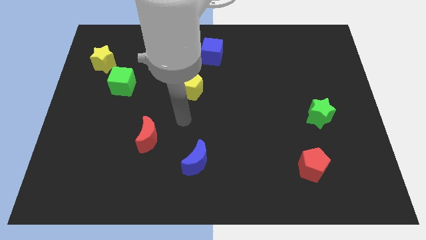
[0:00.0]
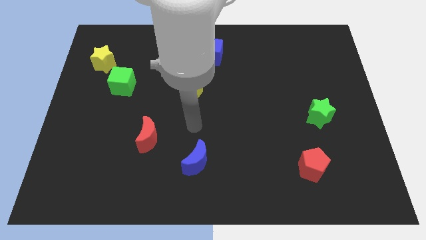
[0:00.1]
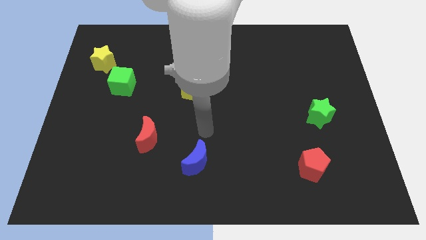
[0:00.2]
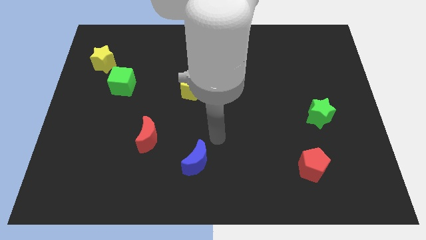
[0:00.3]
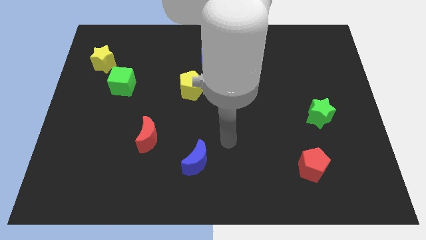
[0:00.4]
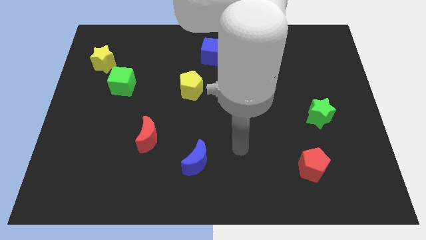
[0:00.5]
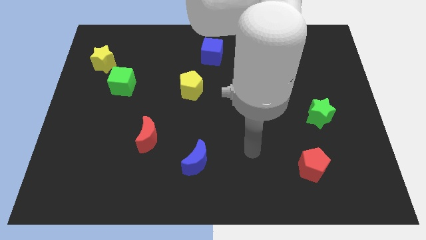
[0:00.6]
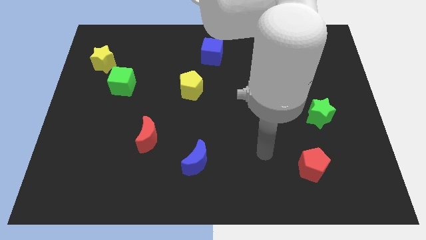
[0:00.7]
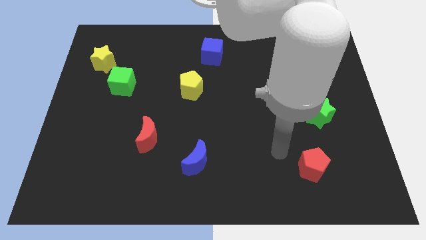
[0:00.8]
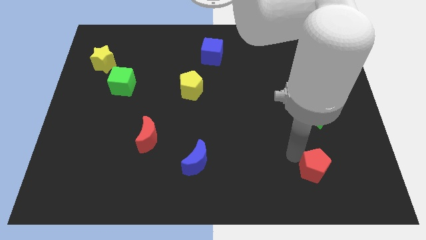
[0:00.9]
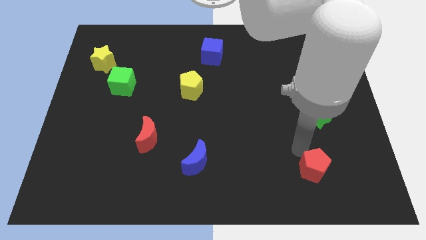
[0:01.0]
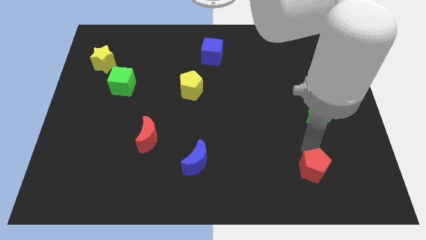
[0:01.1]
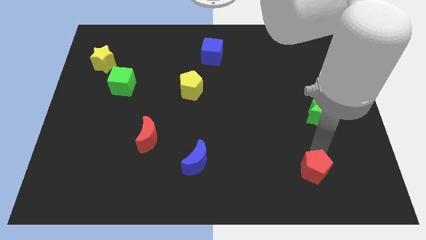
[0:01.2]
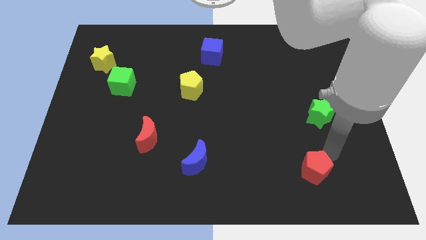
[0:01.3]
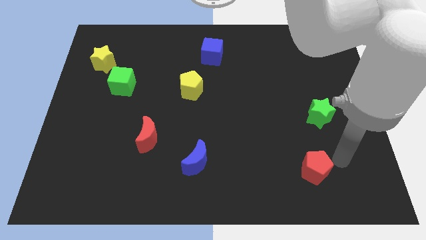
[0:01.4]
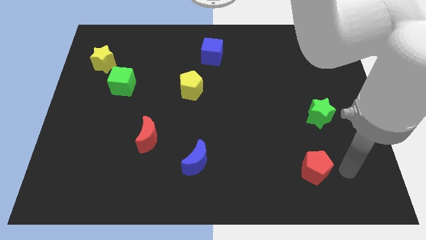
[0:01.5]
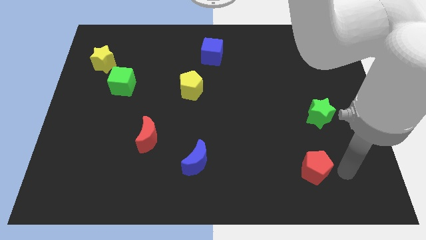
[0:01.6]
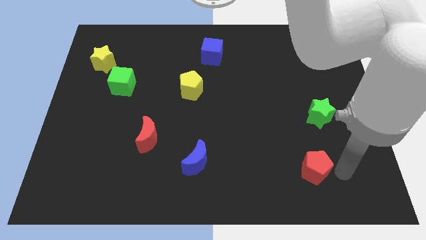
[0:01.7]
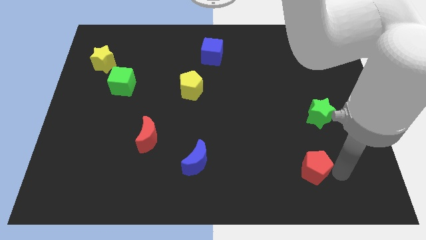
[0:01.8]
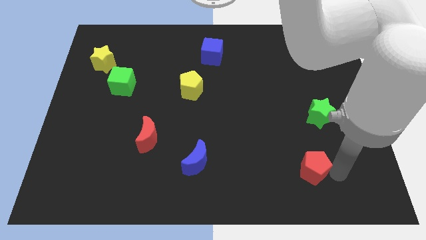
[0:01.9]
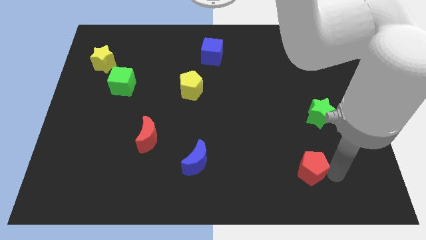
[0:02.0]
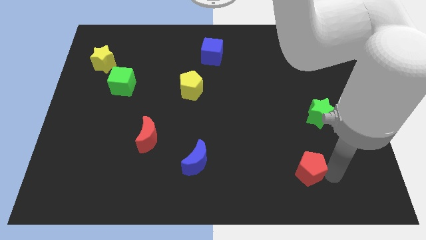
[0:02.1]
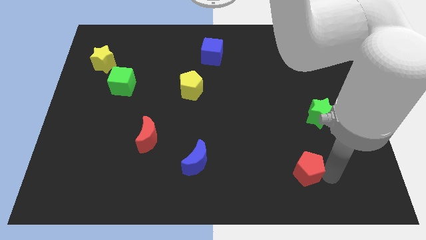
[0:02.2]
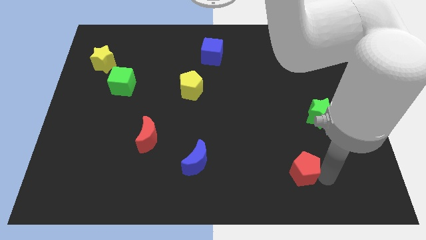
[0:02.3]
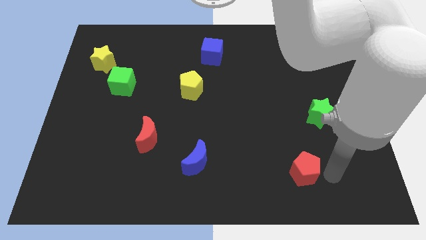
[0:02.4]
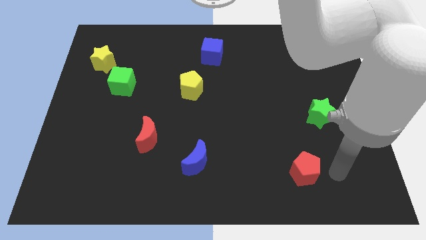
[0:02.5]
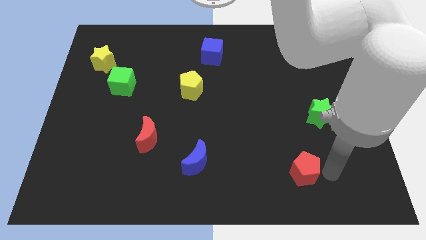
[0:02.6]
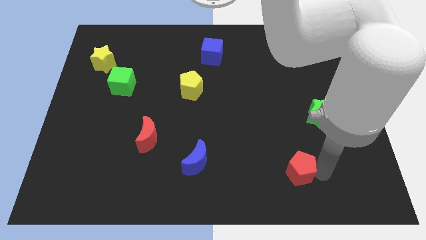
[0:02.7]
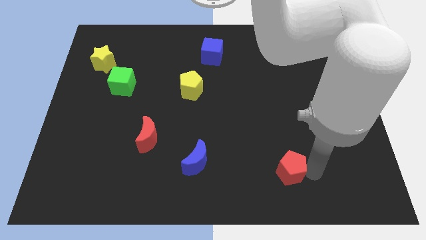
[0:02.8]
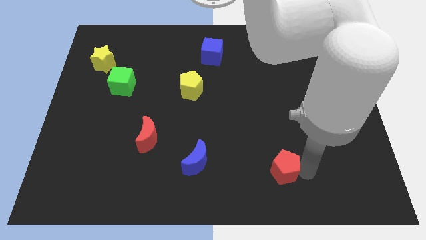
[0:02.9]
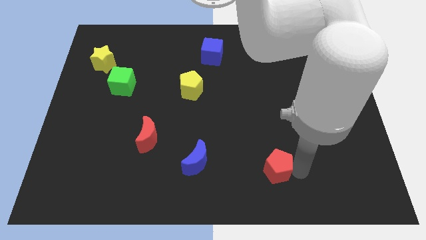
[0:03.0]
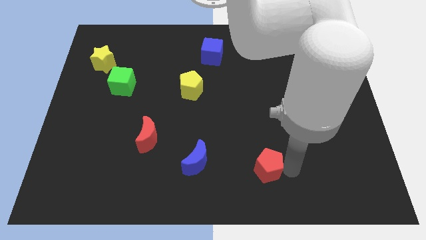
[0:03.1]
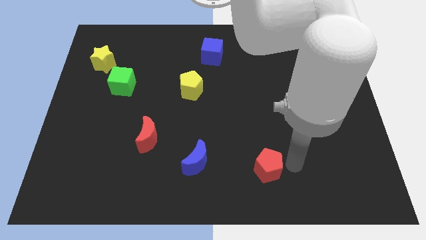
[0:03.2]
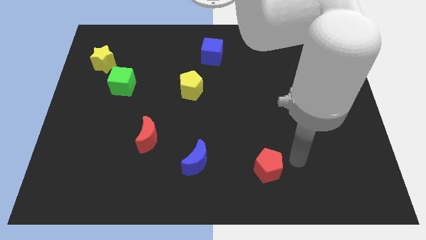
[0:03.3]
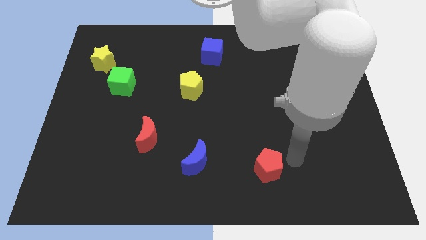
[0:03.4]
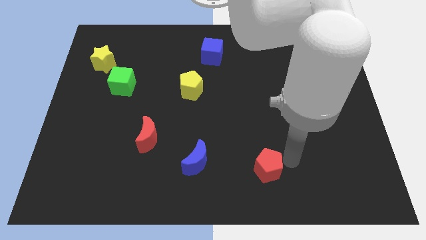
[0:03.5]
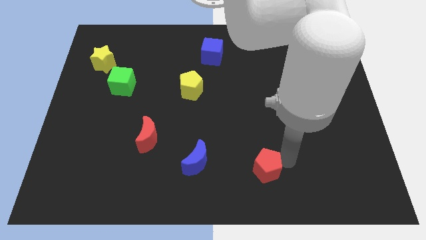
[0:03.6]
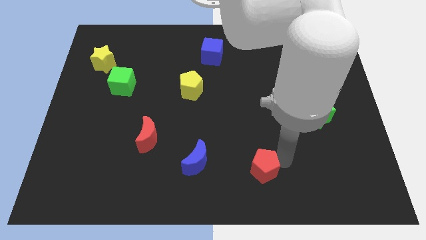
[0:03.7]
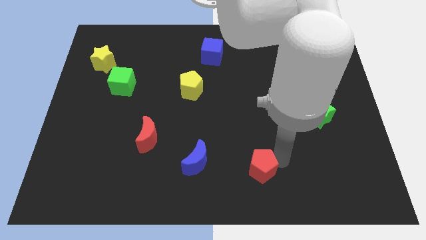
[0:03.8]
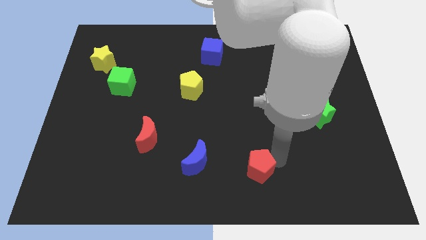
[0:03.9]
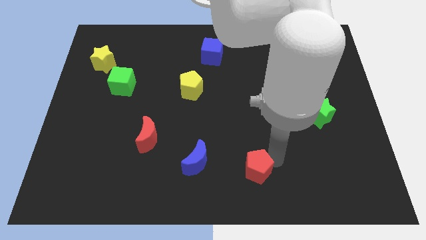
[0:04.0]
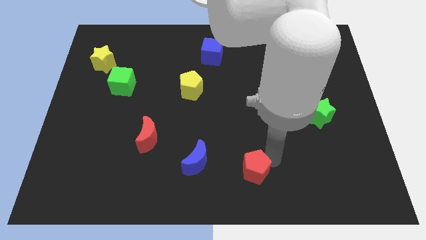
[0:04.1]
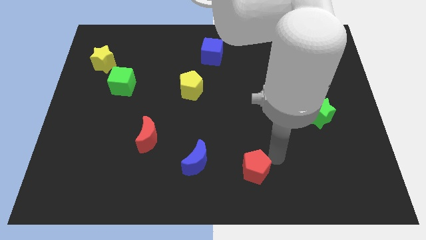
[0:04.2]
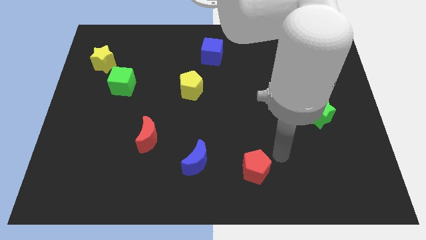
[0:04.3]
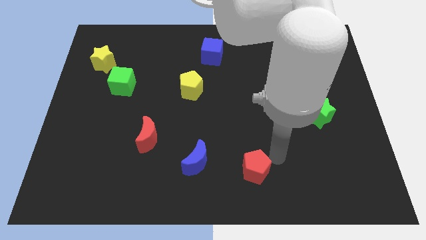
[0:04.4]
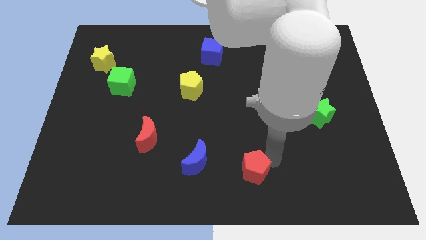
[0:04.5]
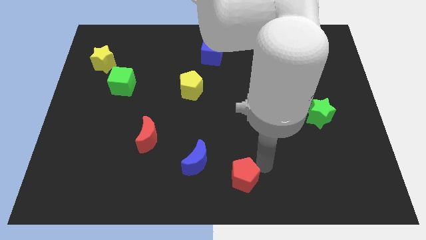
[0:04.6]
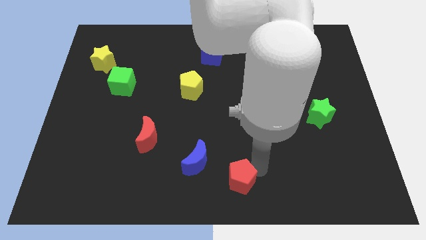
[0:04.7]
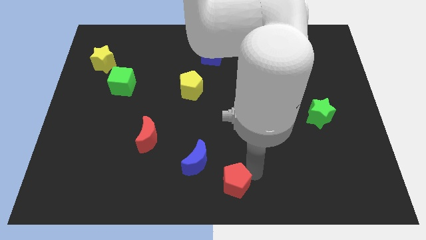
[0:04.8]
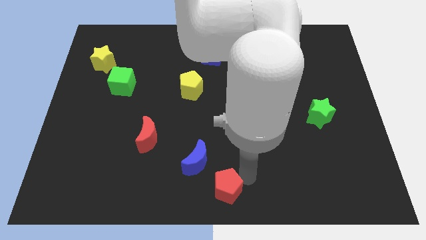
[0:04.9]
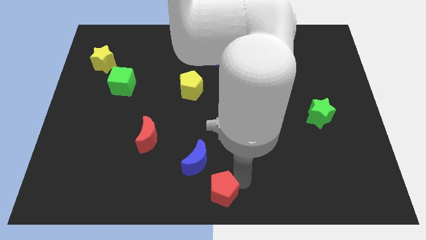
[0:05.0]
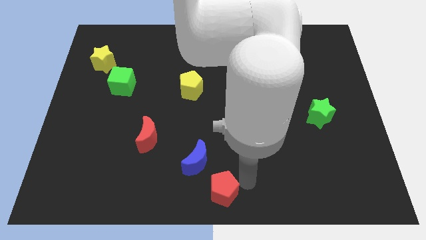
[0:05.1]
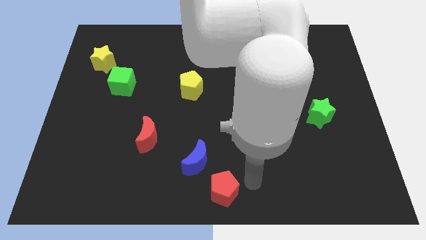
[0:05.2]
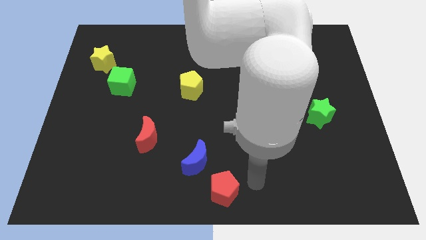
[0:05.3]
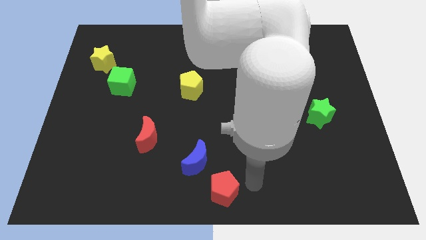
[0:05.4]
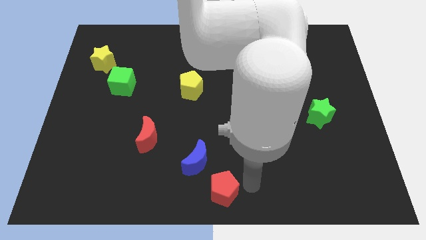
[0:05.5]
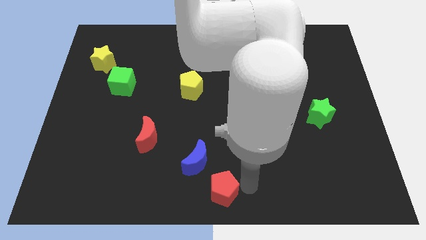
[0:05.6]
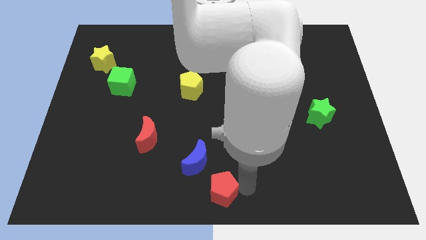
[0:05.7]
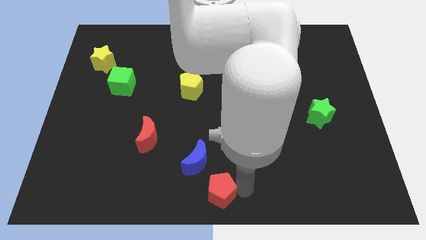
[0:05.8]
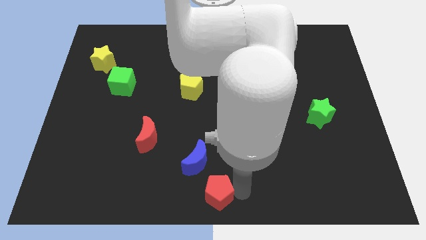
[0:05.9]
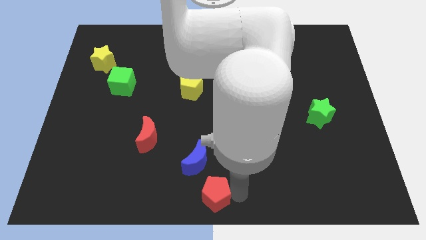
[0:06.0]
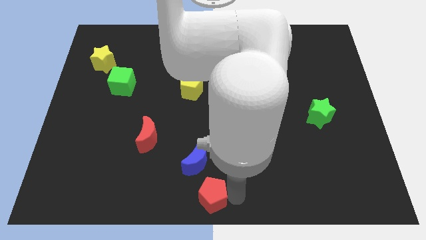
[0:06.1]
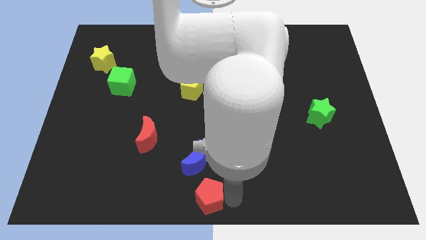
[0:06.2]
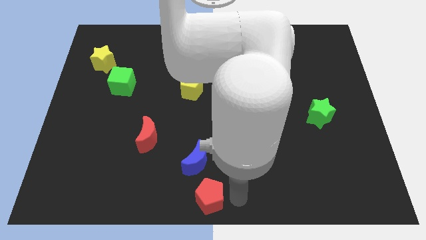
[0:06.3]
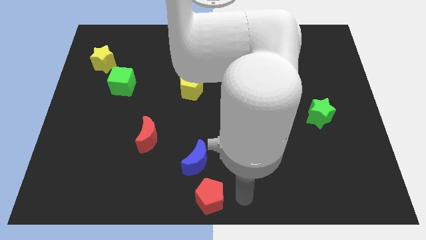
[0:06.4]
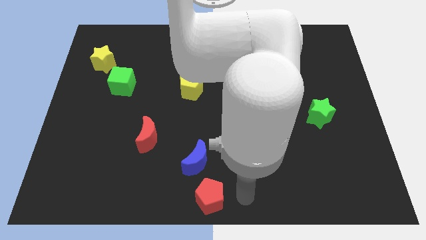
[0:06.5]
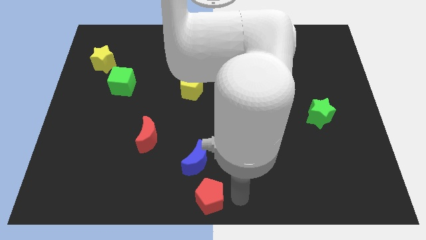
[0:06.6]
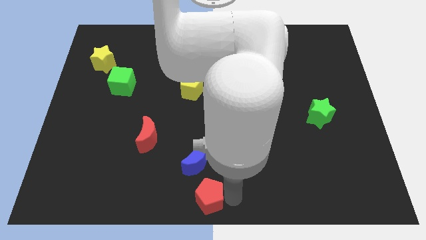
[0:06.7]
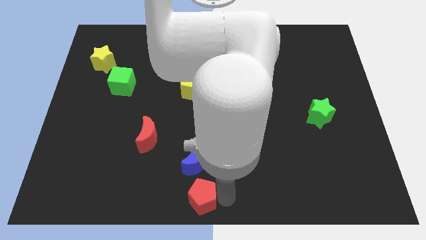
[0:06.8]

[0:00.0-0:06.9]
push the red pentagon left

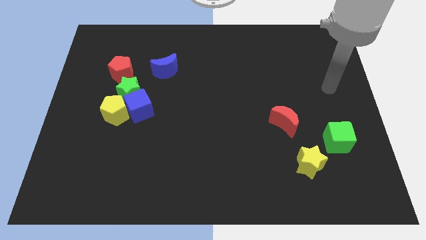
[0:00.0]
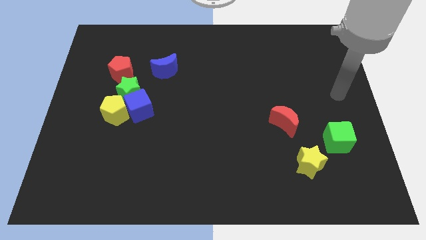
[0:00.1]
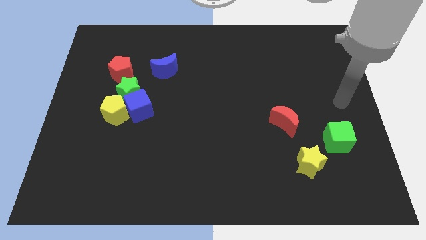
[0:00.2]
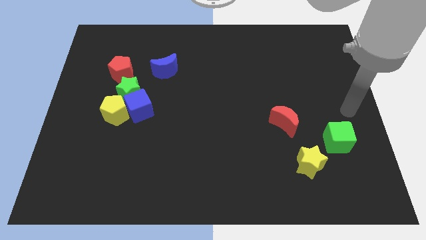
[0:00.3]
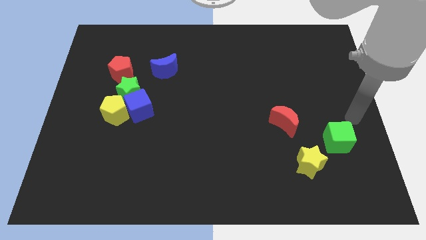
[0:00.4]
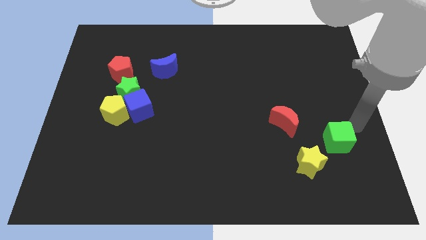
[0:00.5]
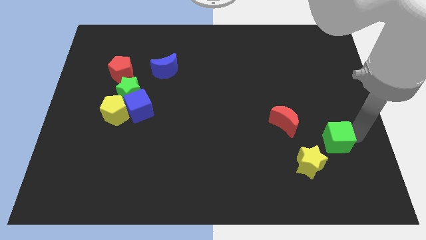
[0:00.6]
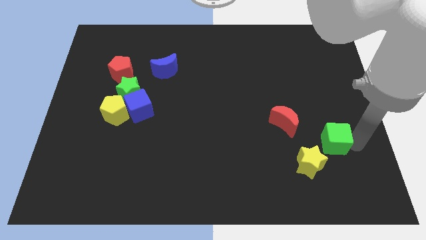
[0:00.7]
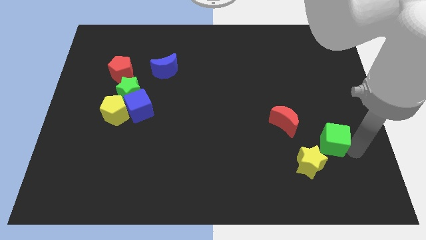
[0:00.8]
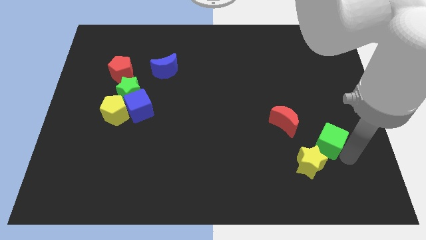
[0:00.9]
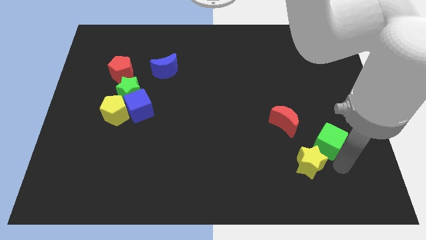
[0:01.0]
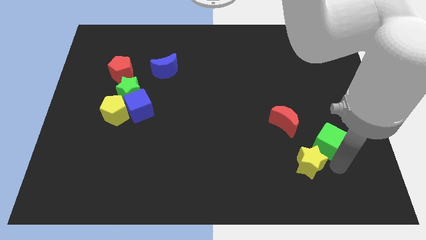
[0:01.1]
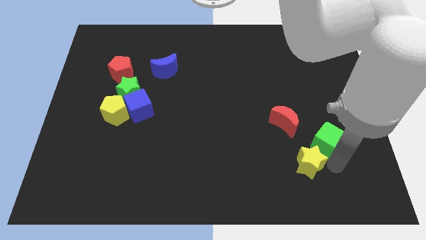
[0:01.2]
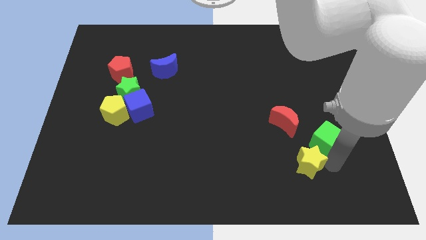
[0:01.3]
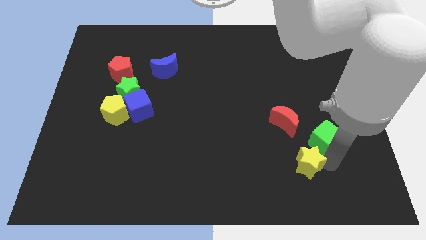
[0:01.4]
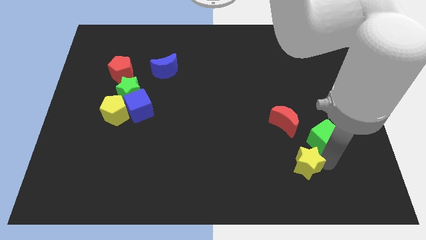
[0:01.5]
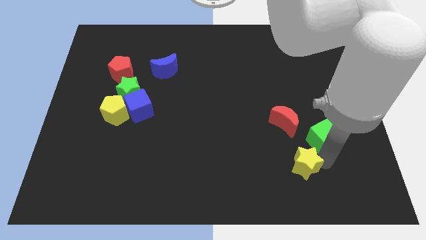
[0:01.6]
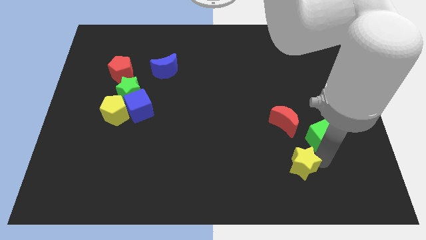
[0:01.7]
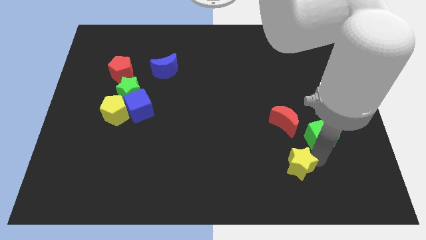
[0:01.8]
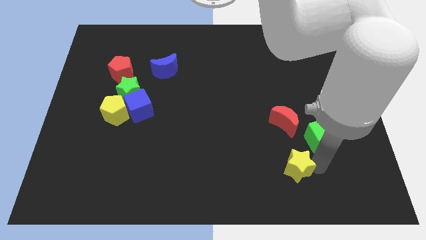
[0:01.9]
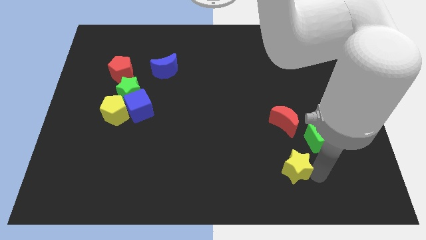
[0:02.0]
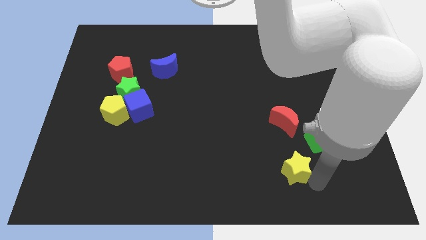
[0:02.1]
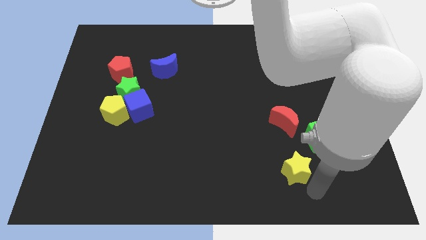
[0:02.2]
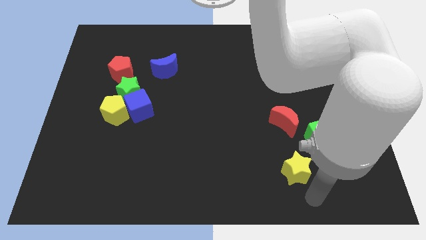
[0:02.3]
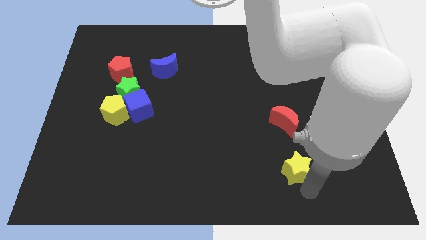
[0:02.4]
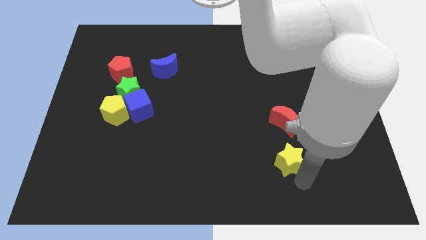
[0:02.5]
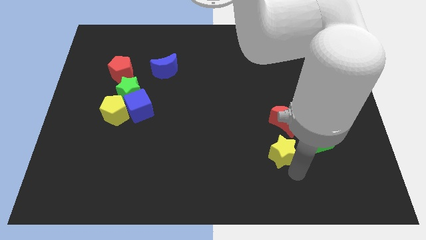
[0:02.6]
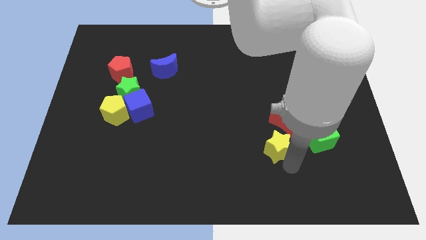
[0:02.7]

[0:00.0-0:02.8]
move the yellow star upwards and to the left diagonally a little
